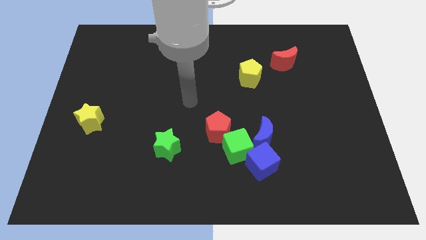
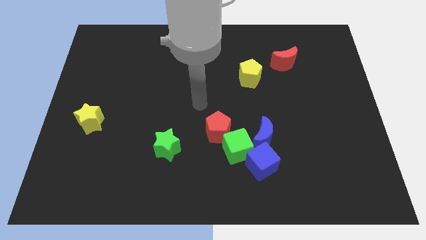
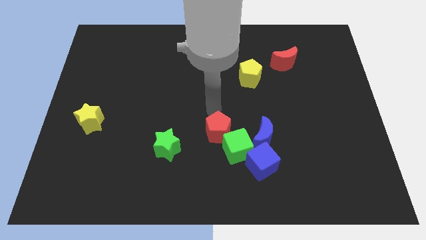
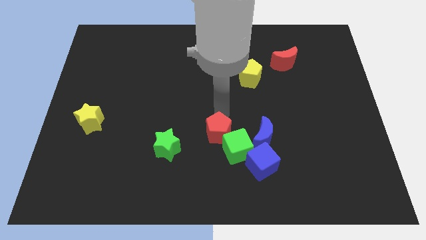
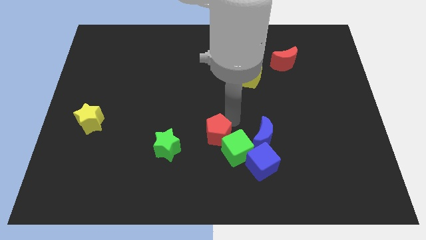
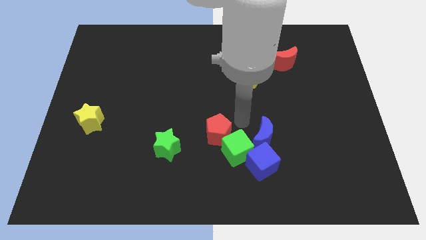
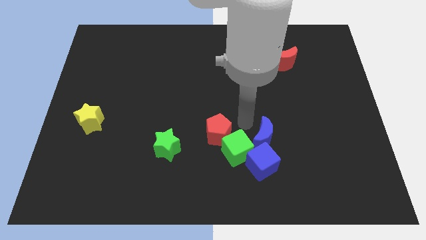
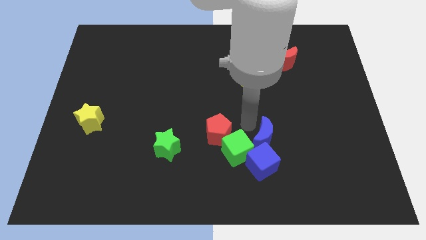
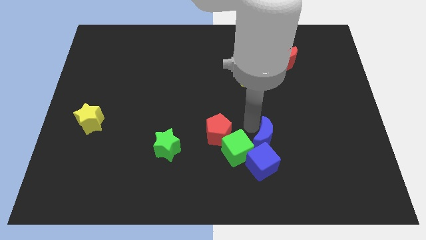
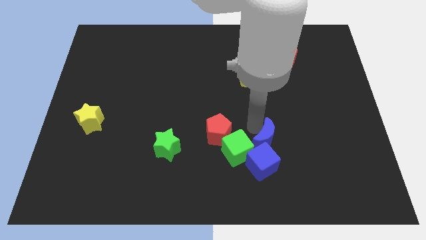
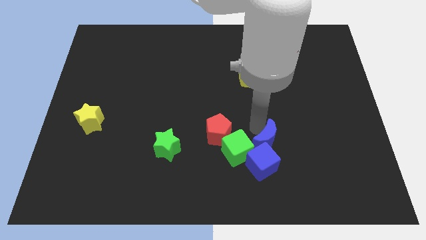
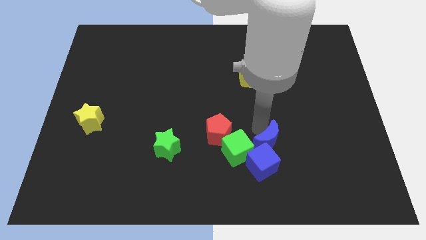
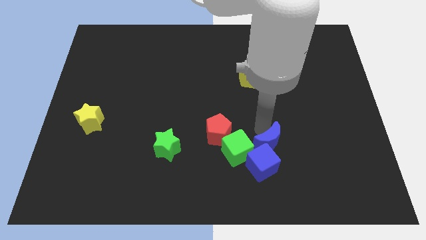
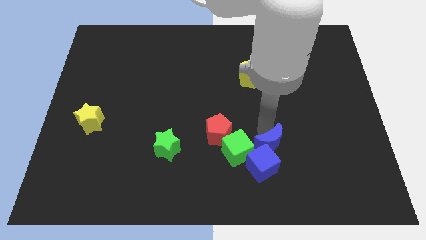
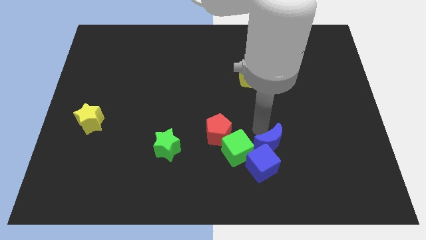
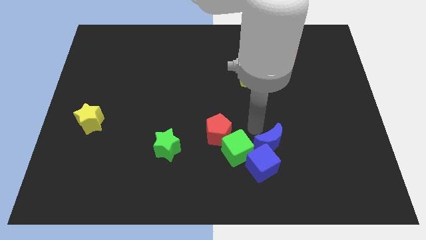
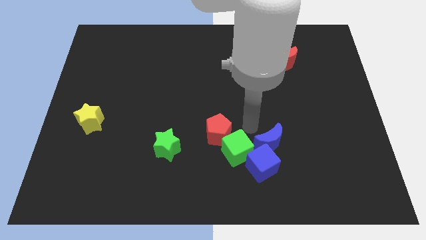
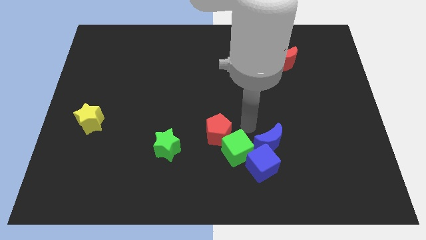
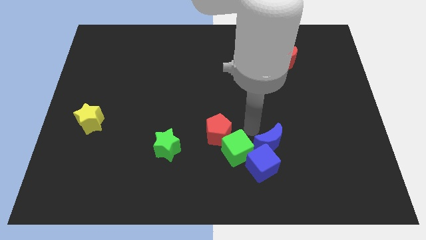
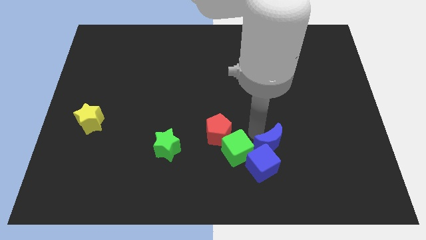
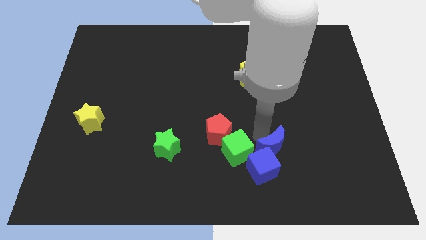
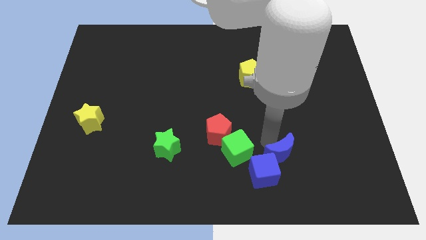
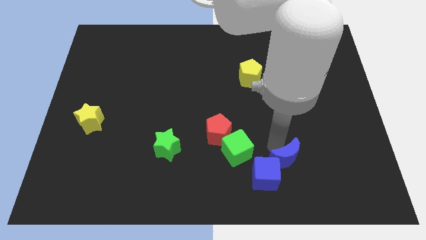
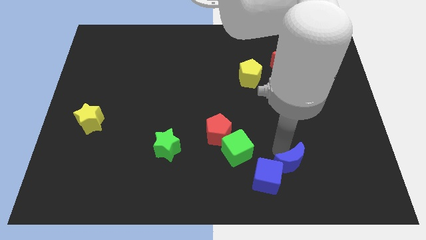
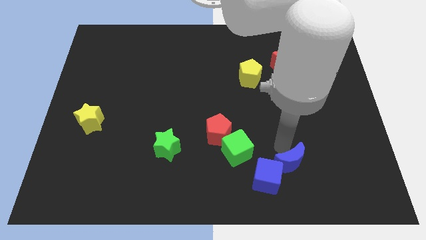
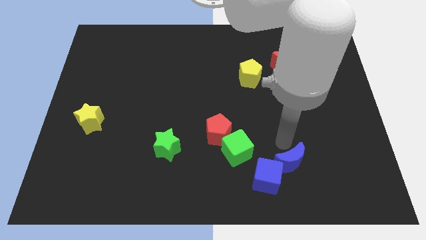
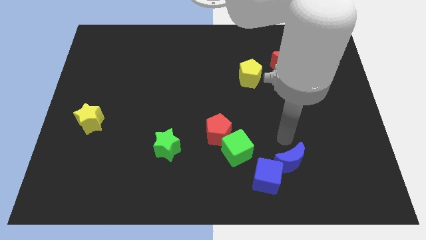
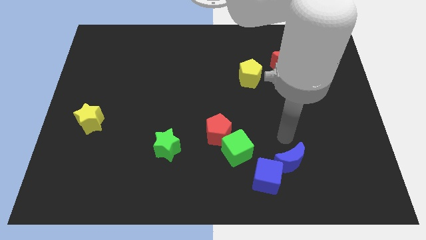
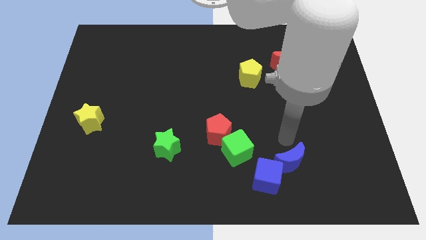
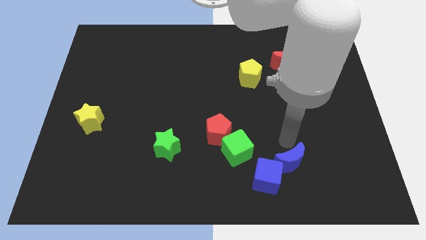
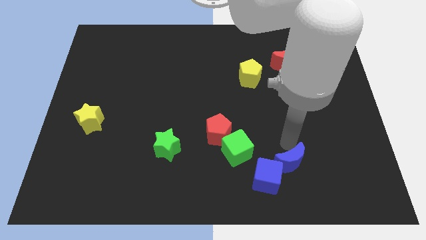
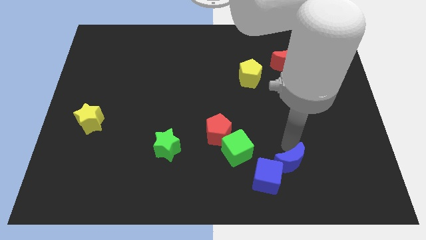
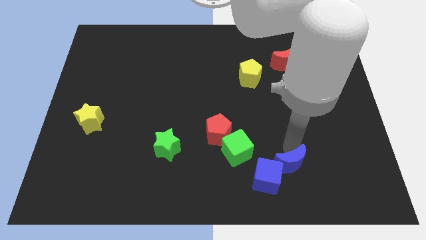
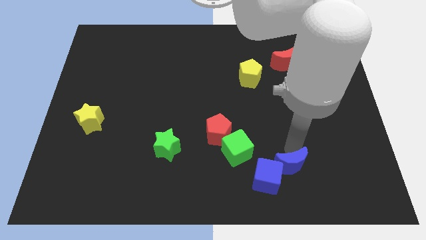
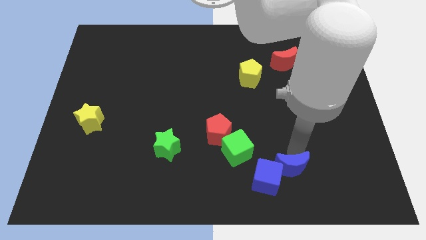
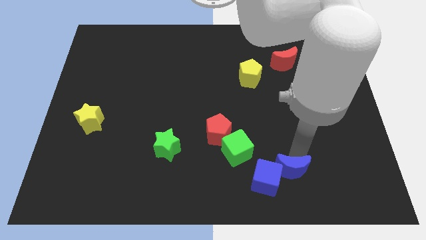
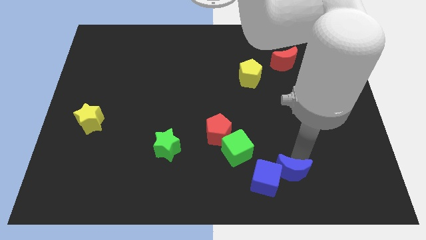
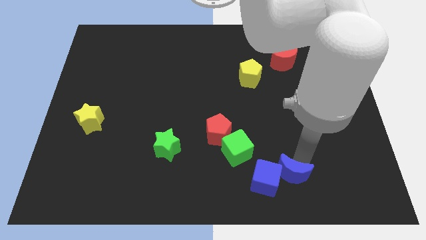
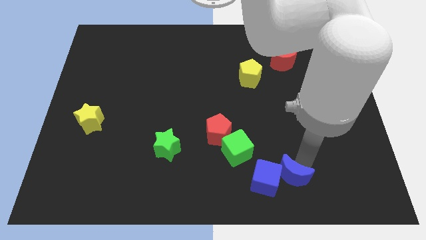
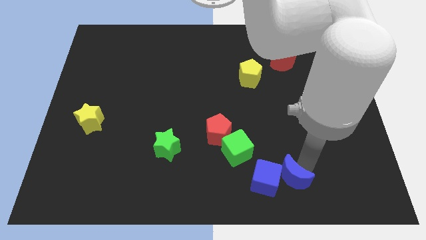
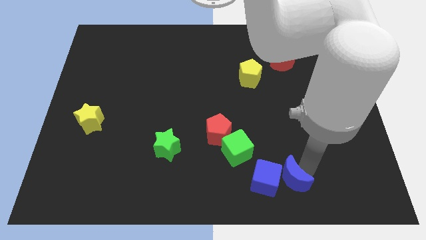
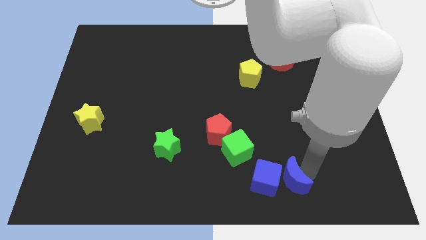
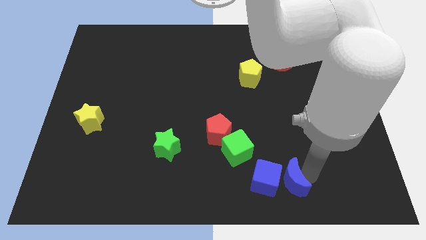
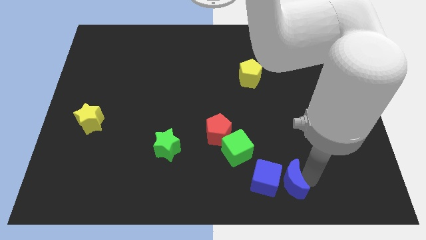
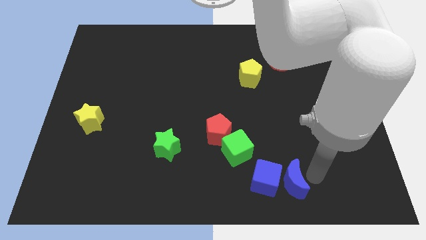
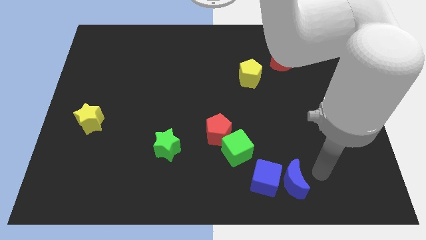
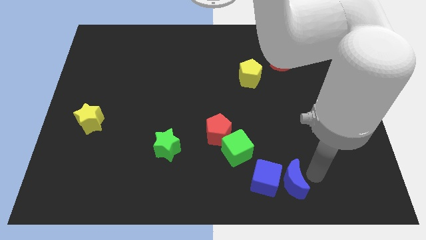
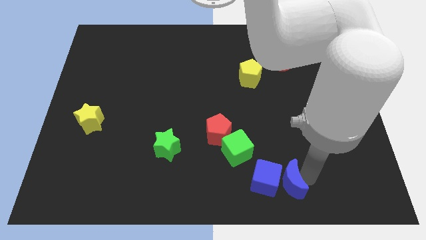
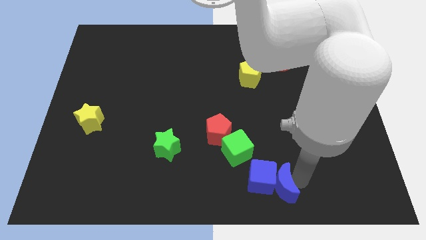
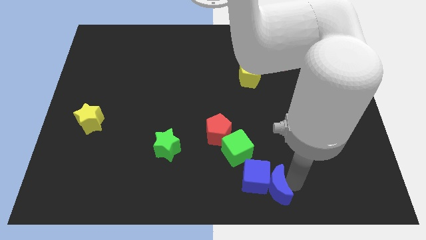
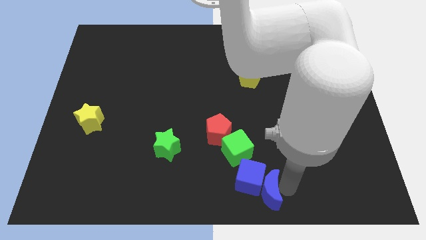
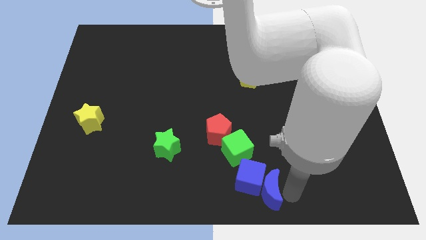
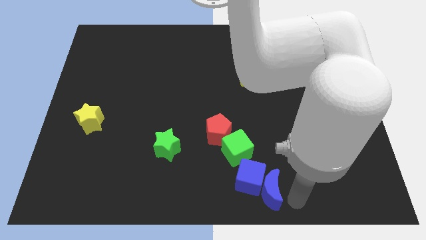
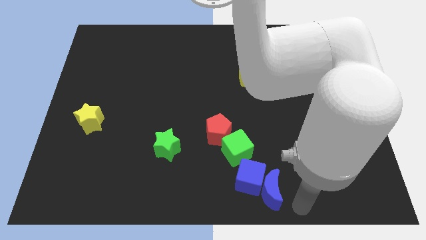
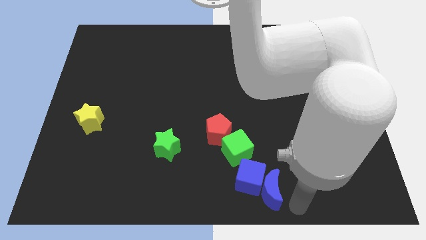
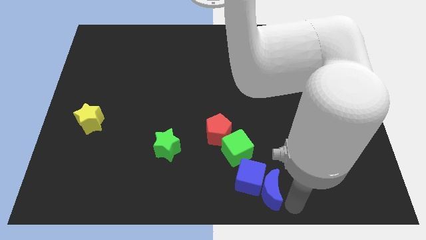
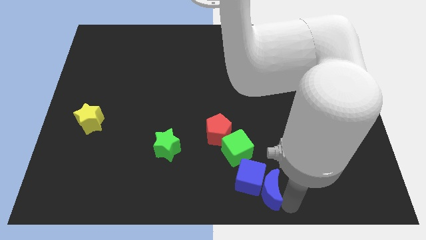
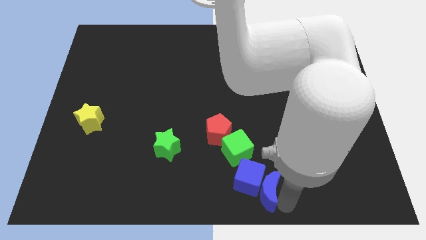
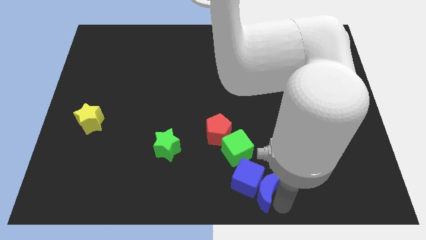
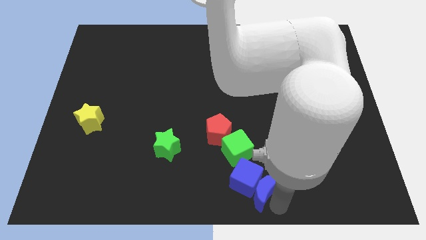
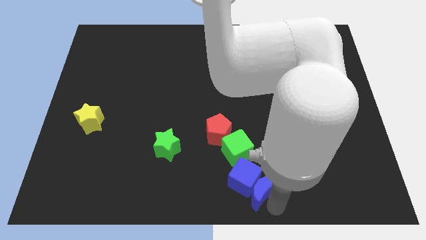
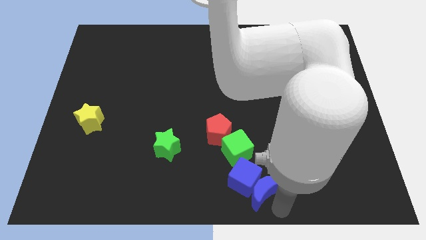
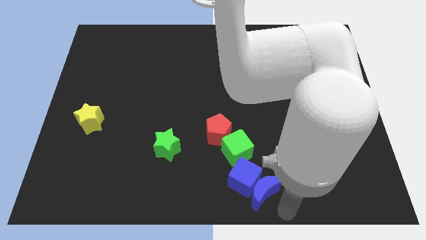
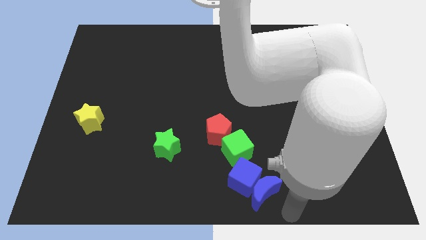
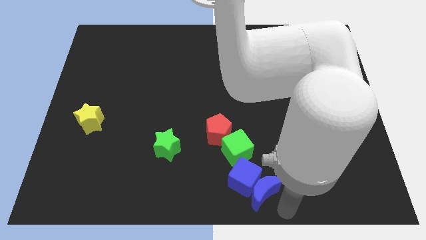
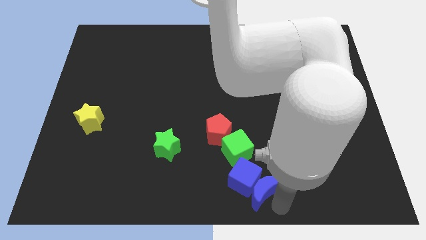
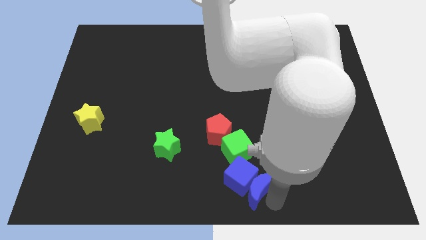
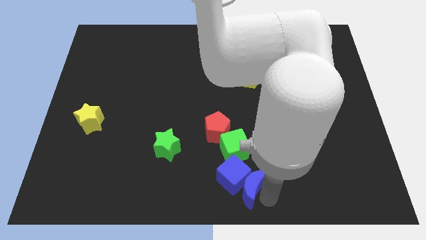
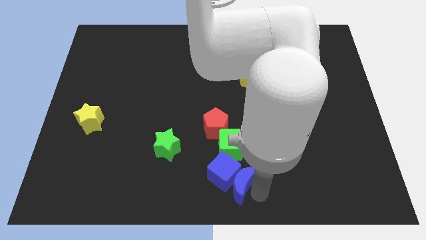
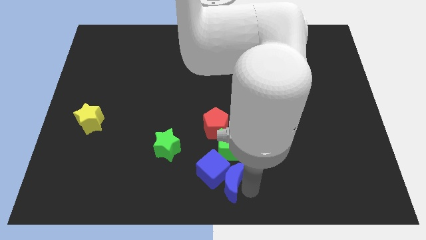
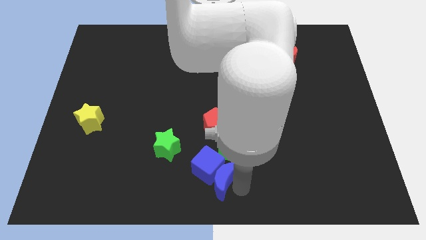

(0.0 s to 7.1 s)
push the blue moon to the bottom left side of the green cube

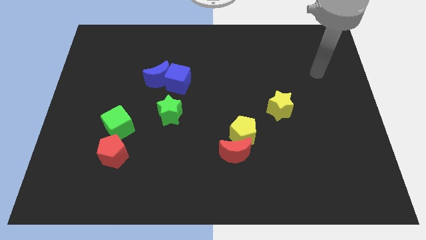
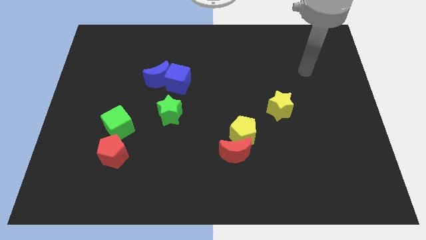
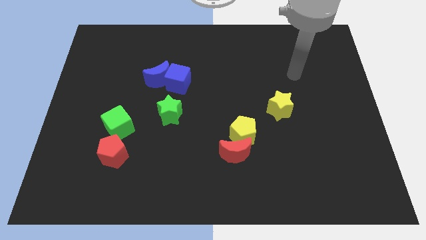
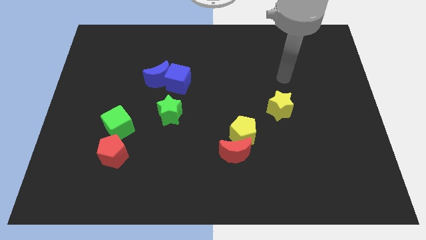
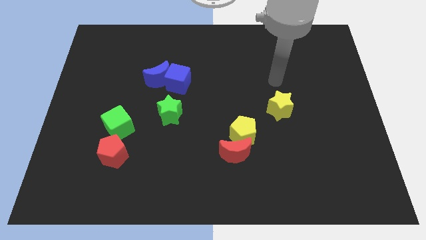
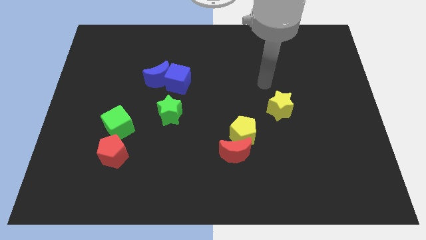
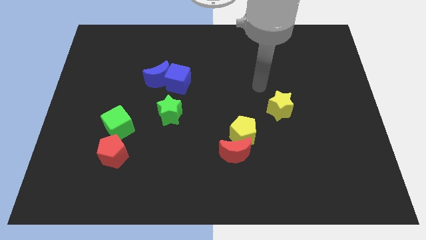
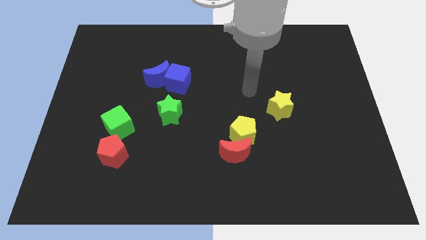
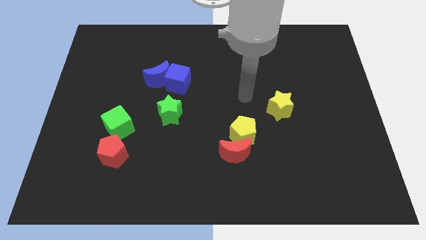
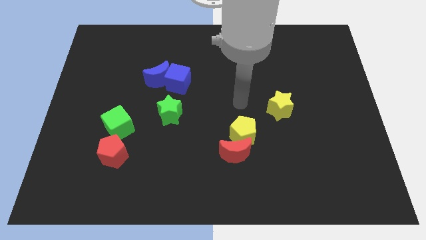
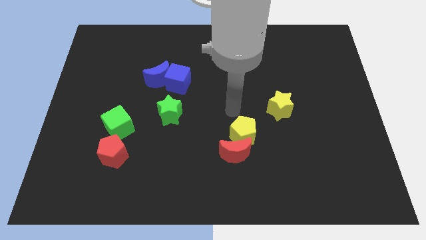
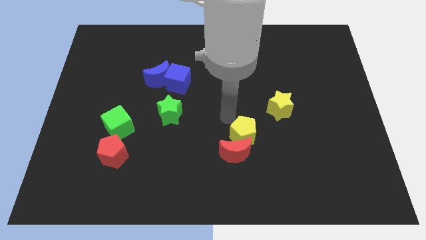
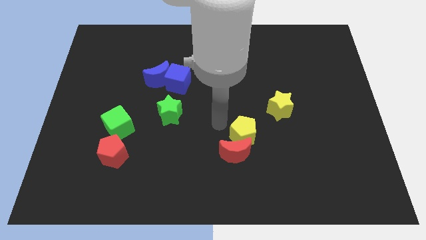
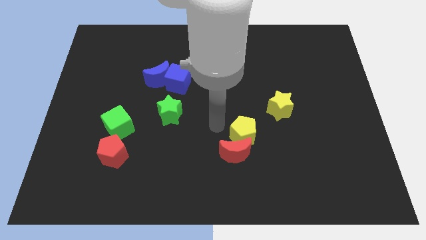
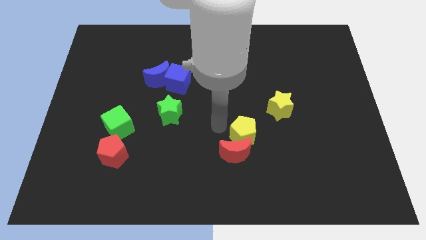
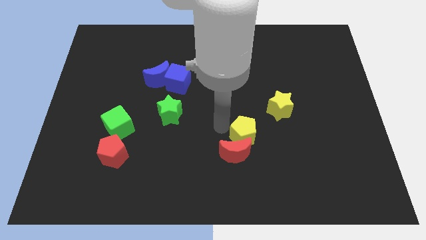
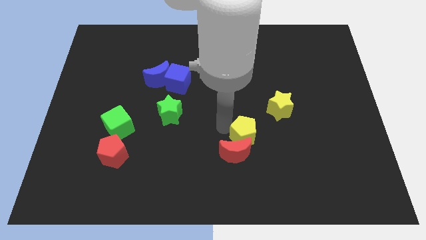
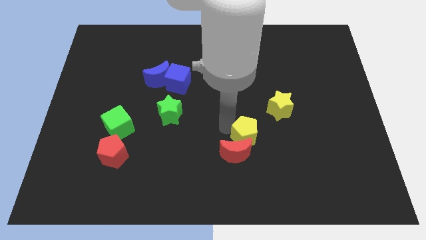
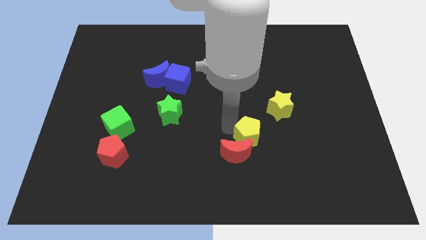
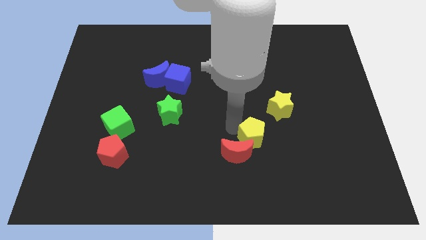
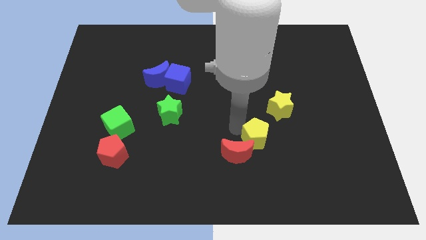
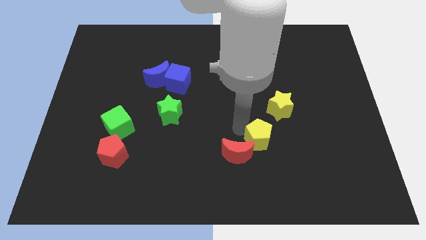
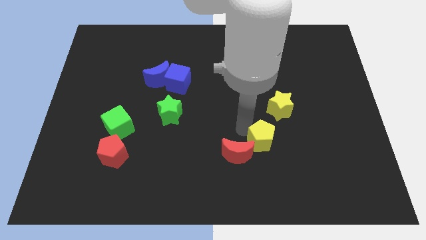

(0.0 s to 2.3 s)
move the yellow pentagon to the bottom of the yellow star
